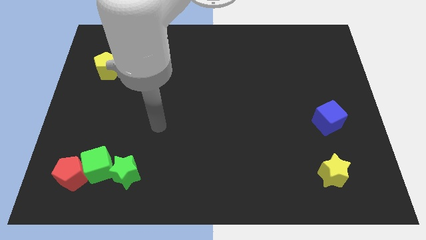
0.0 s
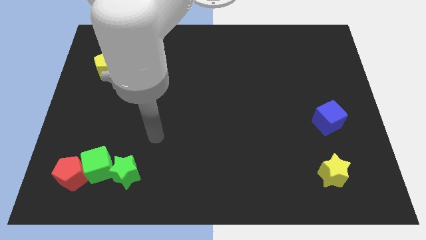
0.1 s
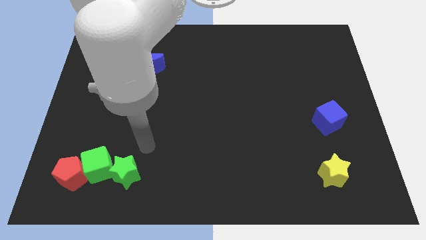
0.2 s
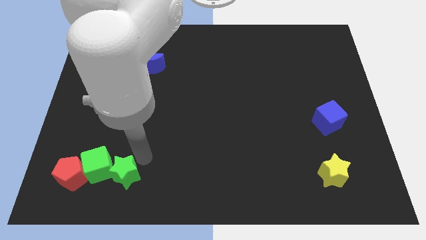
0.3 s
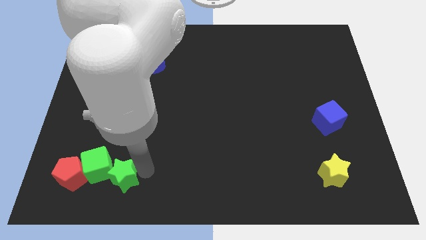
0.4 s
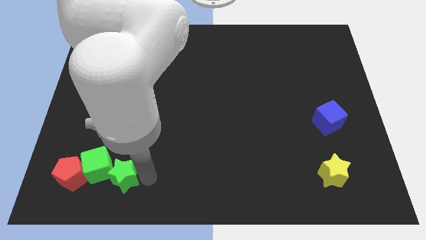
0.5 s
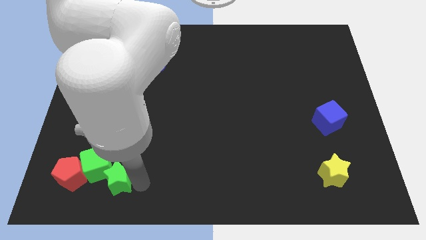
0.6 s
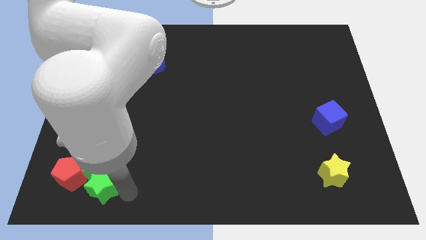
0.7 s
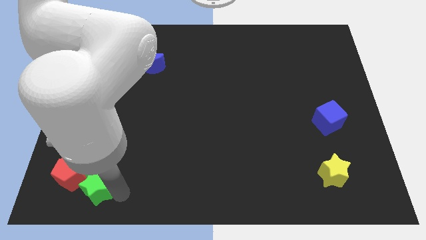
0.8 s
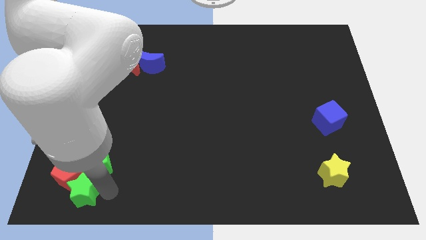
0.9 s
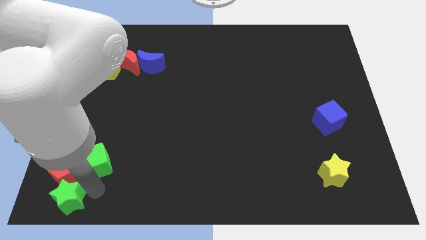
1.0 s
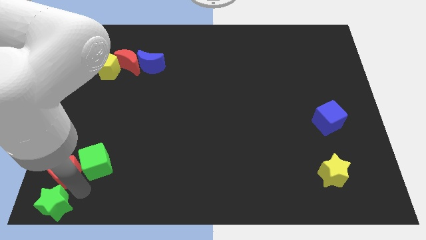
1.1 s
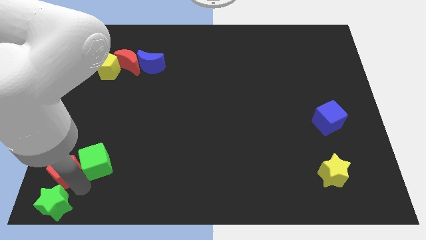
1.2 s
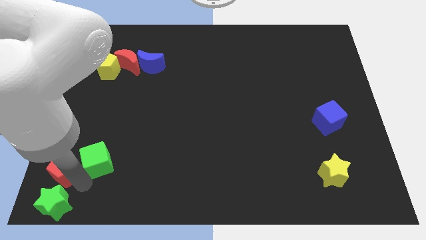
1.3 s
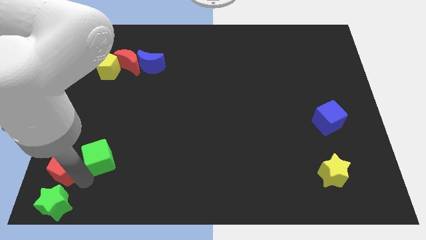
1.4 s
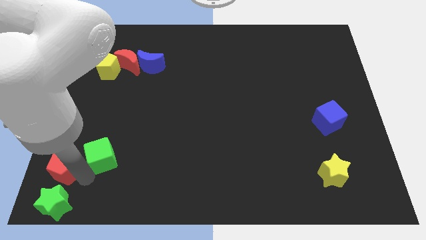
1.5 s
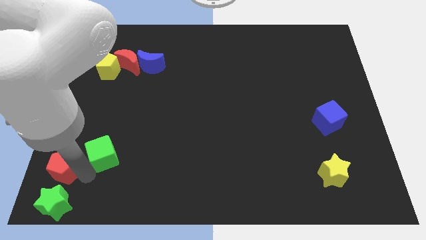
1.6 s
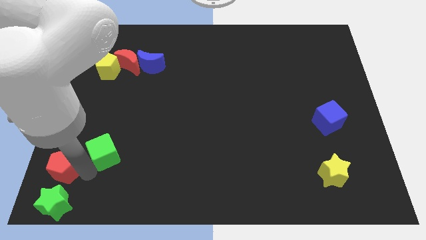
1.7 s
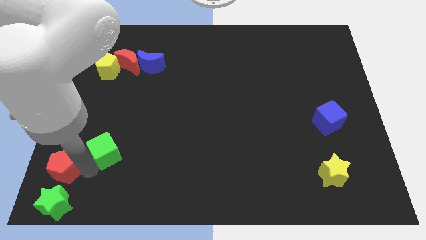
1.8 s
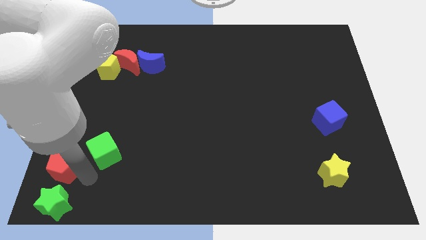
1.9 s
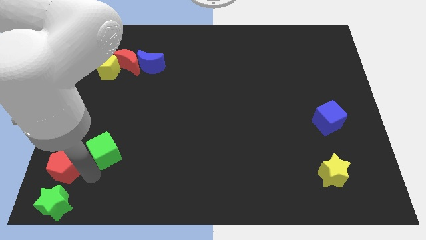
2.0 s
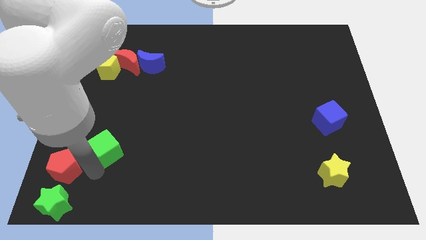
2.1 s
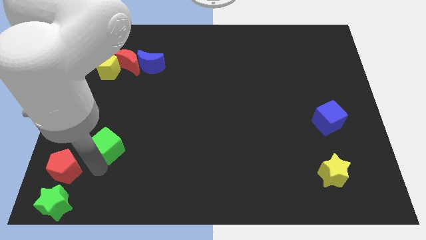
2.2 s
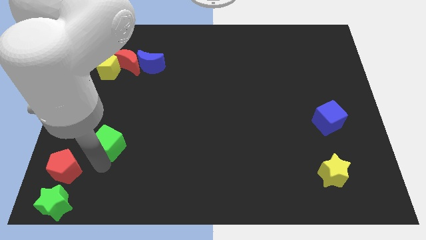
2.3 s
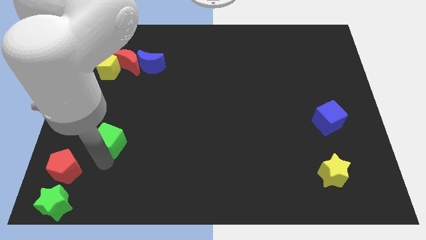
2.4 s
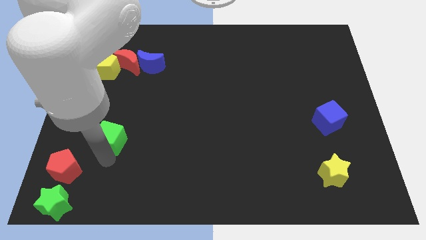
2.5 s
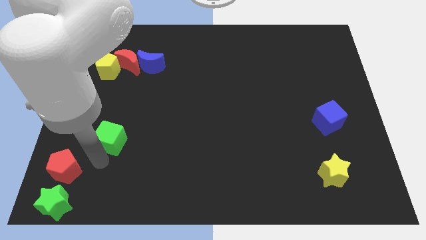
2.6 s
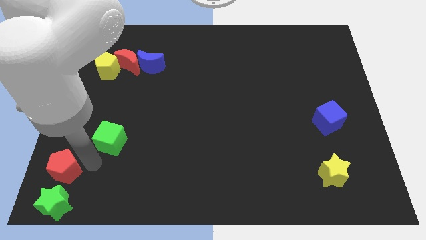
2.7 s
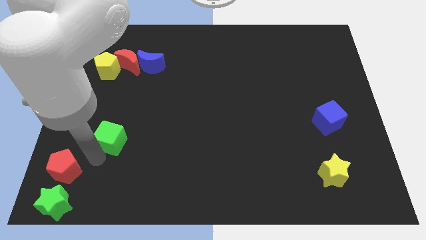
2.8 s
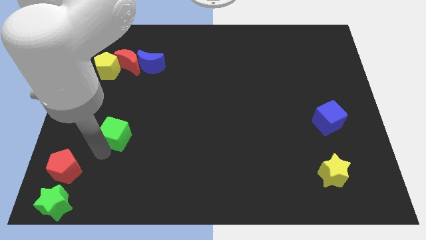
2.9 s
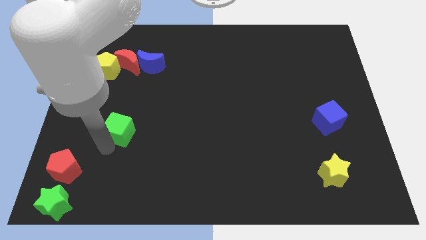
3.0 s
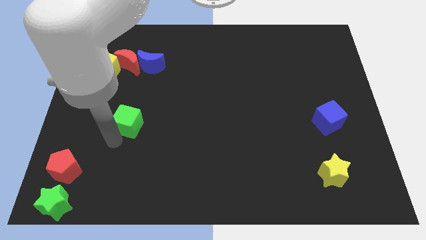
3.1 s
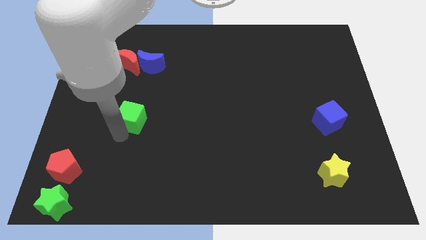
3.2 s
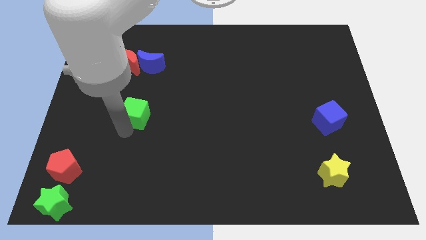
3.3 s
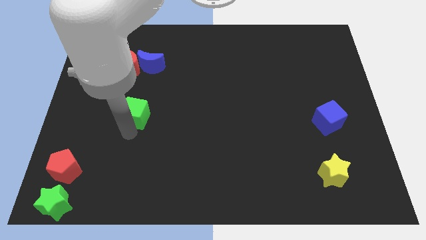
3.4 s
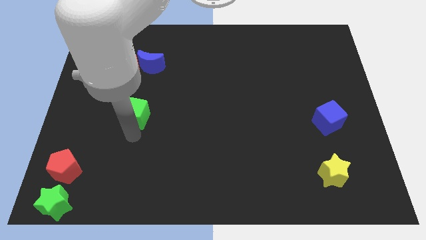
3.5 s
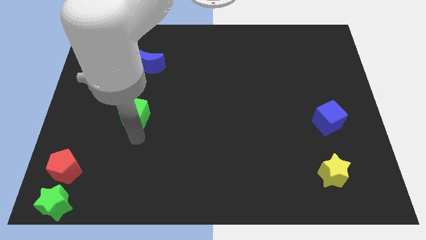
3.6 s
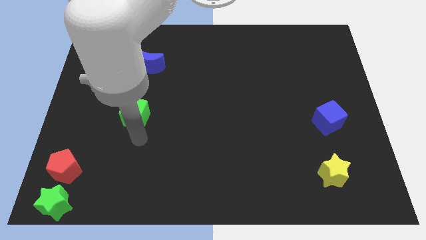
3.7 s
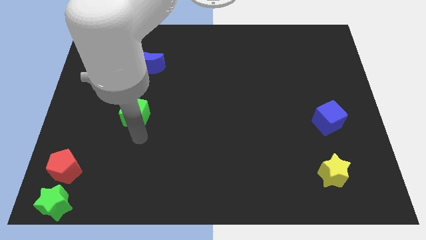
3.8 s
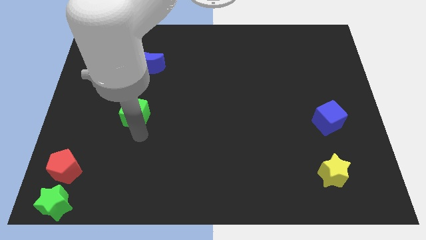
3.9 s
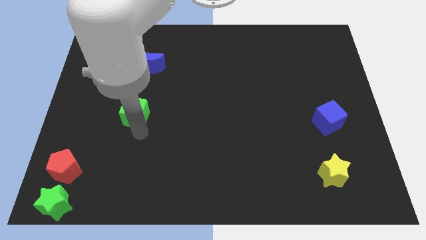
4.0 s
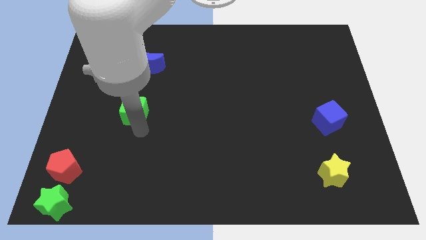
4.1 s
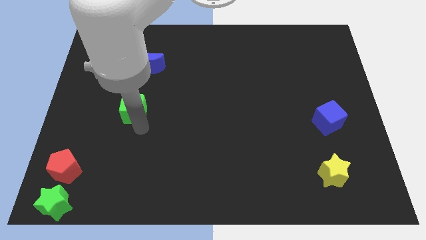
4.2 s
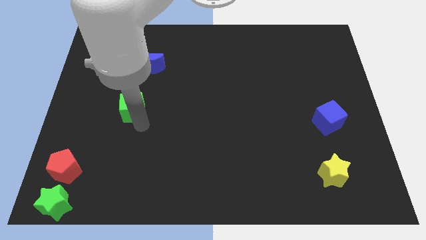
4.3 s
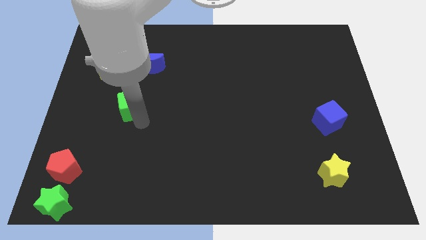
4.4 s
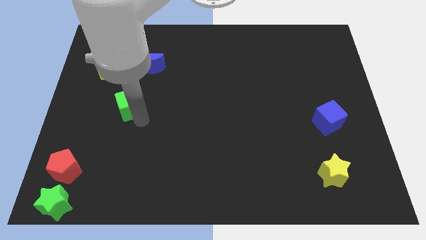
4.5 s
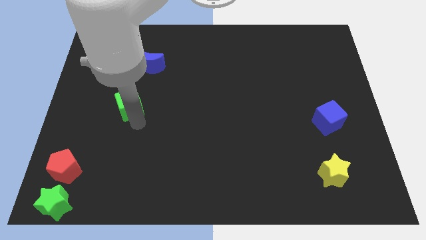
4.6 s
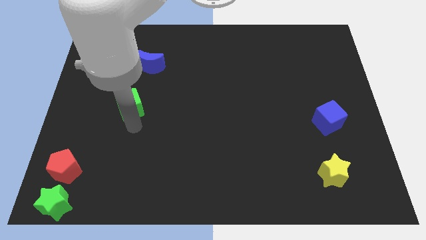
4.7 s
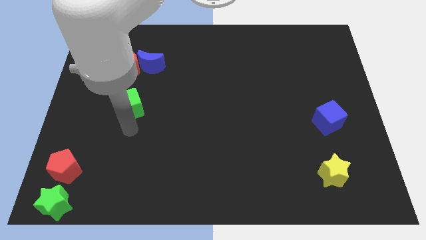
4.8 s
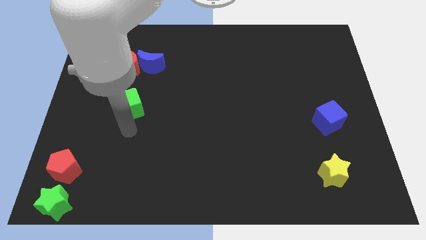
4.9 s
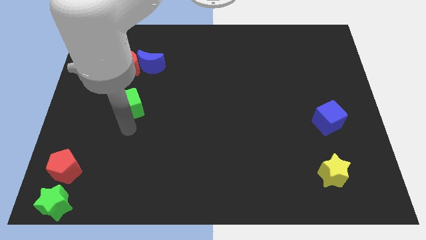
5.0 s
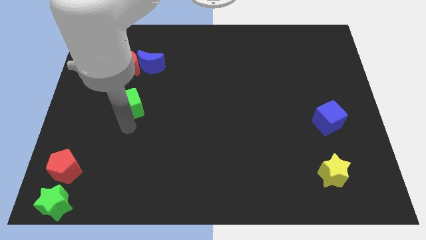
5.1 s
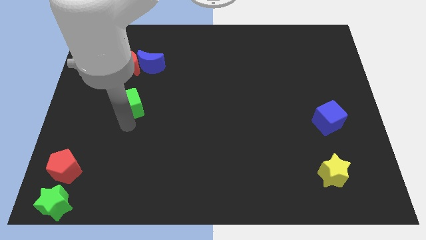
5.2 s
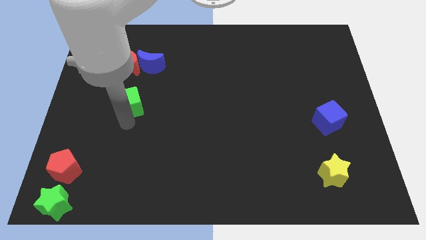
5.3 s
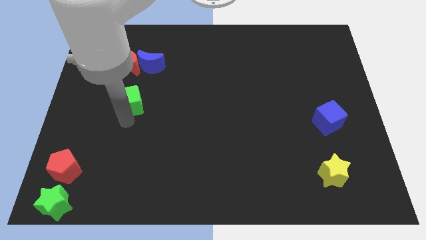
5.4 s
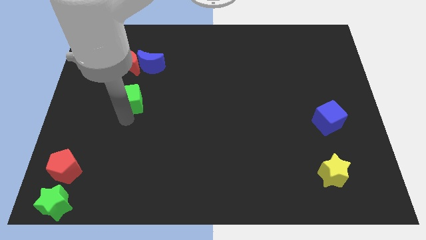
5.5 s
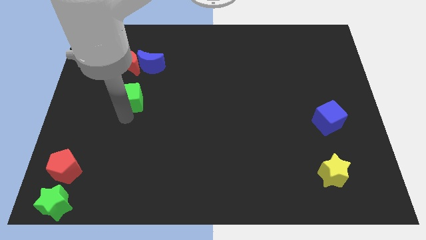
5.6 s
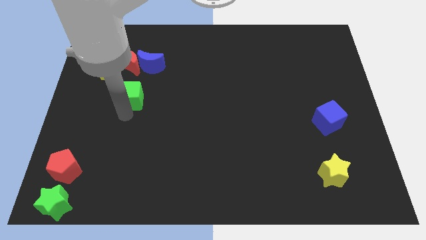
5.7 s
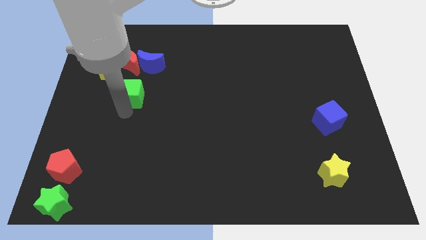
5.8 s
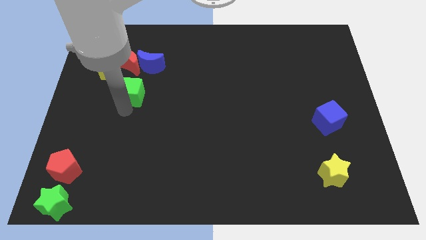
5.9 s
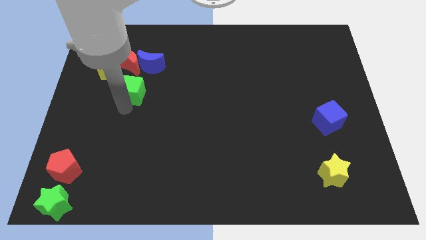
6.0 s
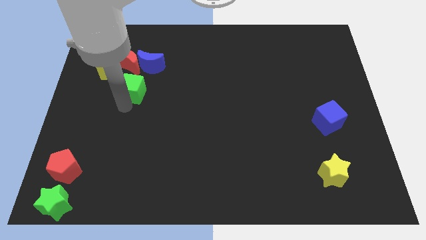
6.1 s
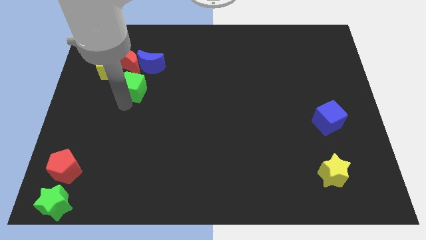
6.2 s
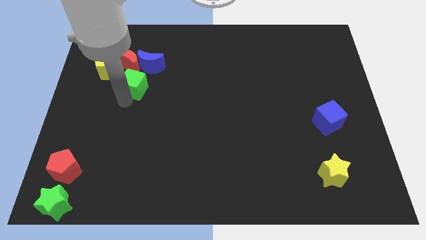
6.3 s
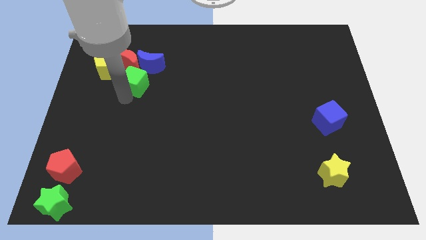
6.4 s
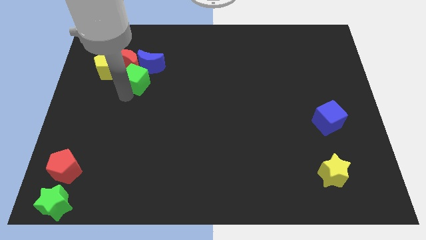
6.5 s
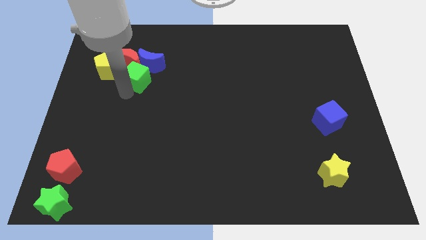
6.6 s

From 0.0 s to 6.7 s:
put the green cube to the blue moon
